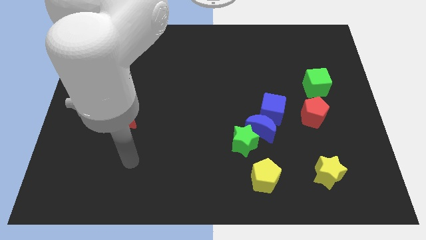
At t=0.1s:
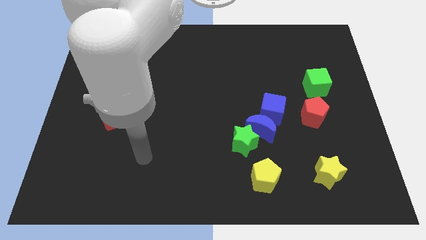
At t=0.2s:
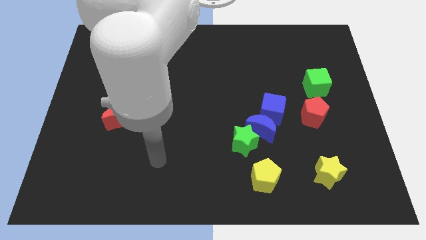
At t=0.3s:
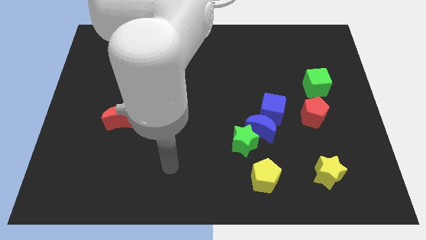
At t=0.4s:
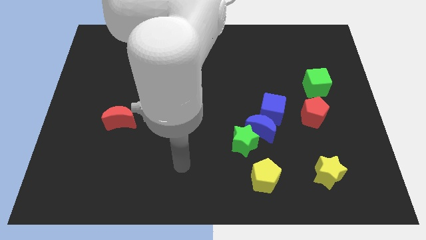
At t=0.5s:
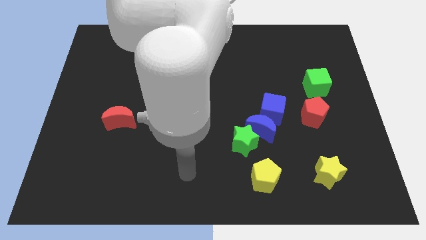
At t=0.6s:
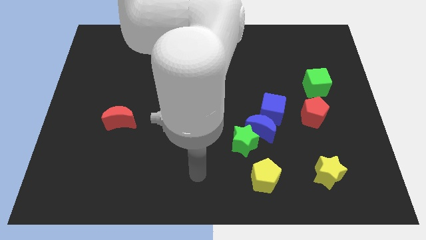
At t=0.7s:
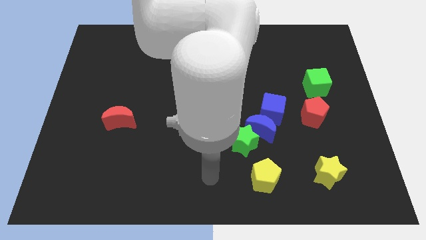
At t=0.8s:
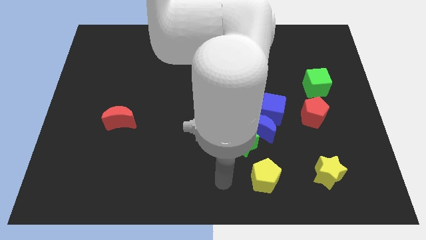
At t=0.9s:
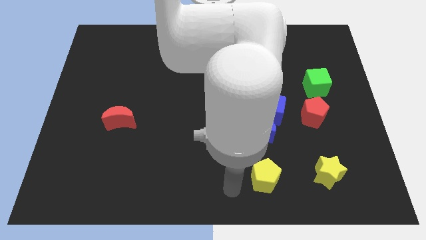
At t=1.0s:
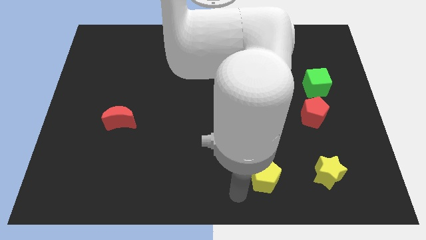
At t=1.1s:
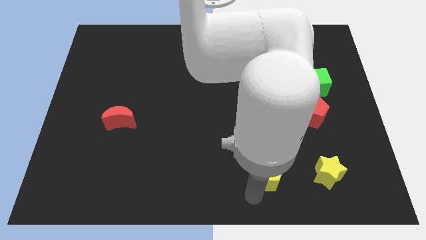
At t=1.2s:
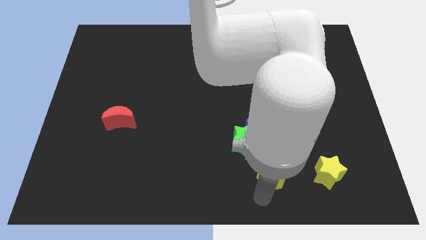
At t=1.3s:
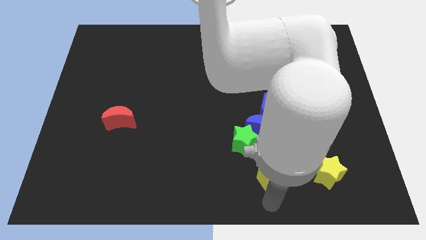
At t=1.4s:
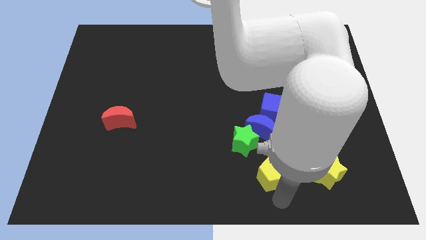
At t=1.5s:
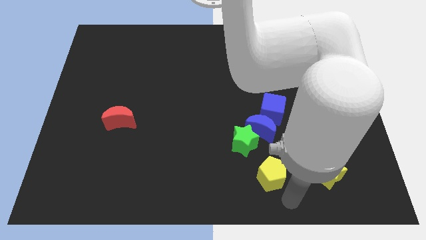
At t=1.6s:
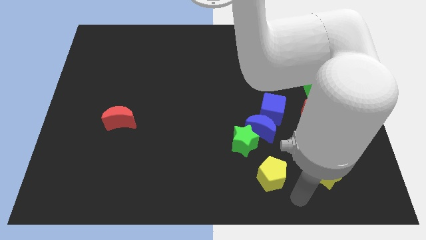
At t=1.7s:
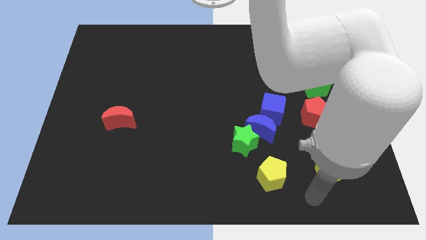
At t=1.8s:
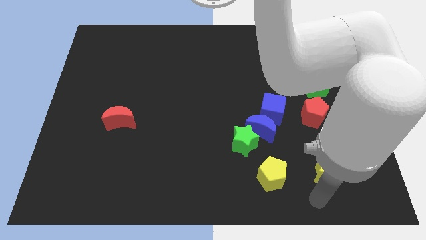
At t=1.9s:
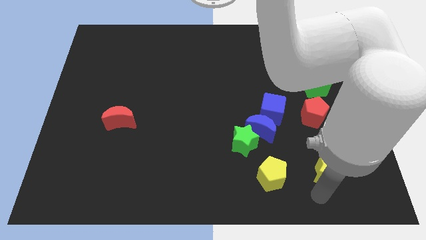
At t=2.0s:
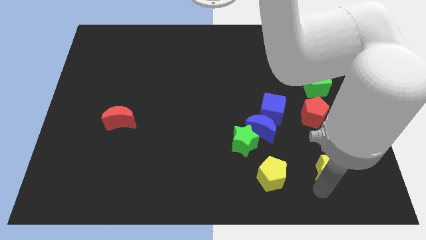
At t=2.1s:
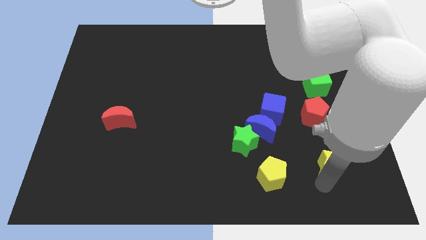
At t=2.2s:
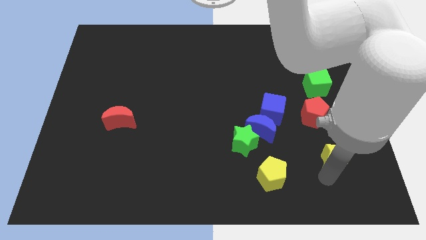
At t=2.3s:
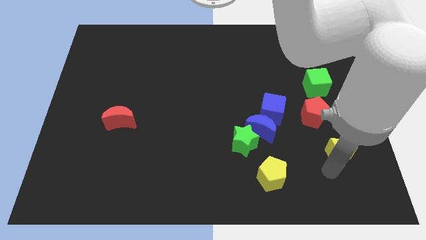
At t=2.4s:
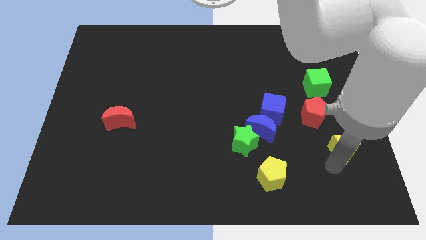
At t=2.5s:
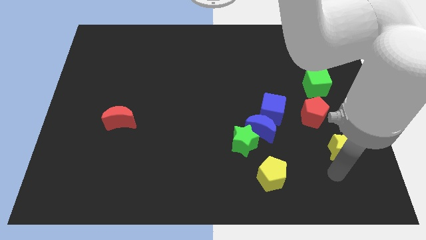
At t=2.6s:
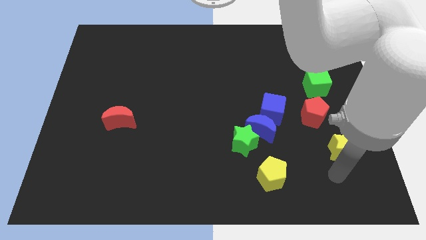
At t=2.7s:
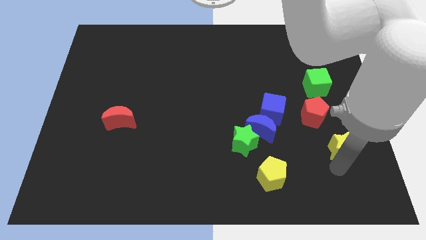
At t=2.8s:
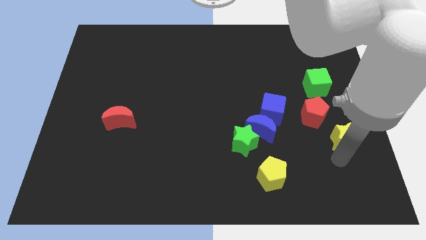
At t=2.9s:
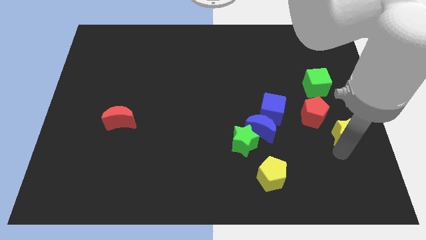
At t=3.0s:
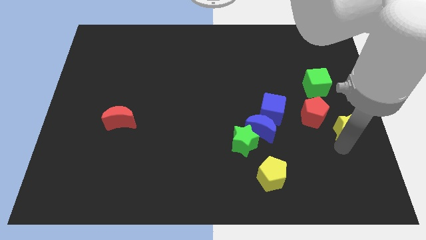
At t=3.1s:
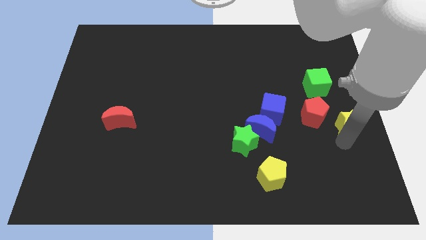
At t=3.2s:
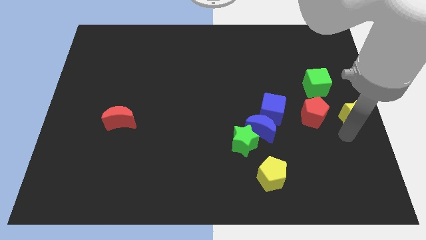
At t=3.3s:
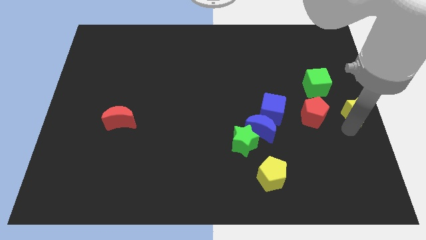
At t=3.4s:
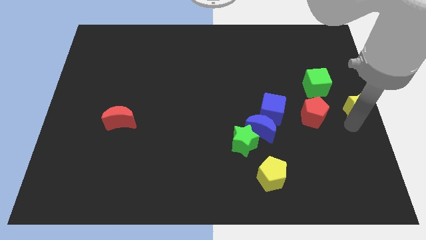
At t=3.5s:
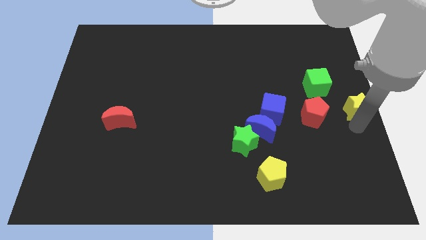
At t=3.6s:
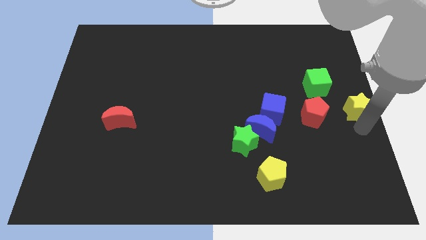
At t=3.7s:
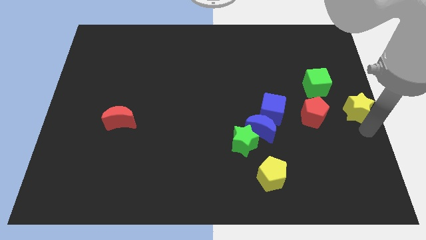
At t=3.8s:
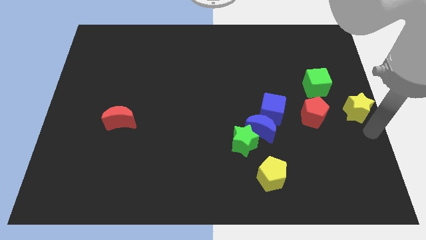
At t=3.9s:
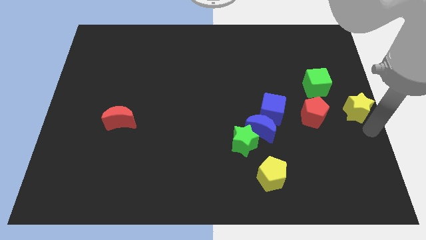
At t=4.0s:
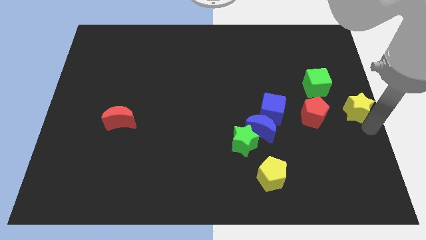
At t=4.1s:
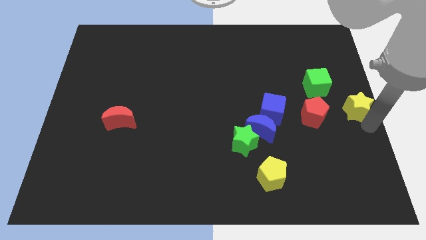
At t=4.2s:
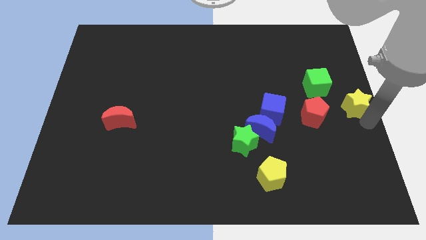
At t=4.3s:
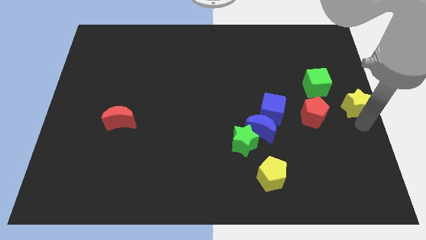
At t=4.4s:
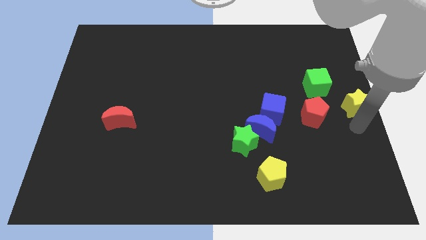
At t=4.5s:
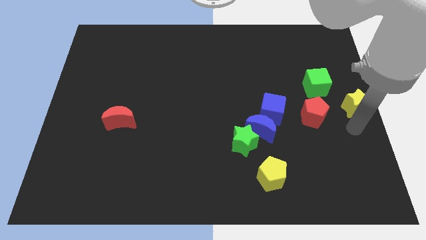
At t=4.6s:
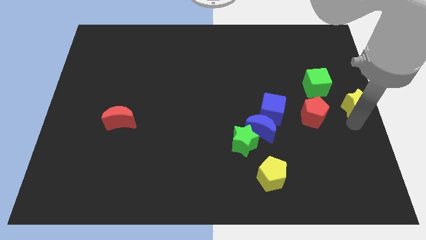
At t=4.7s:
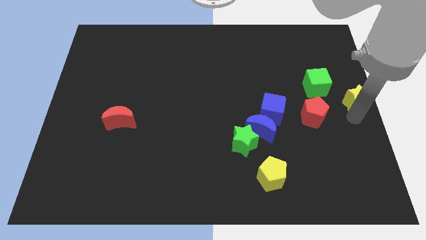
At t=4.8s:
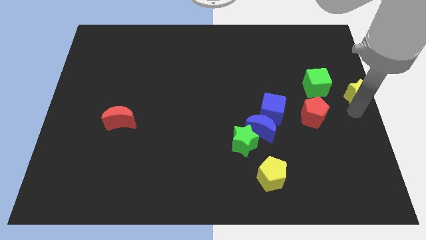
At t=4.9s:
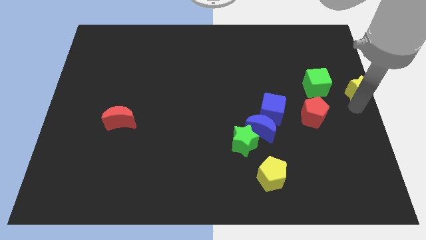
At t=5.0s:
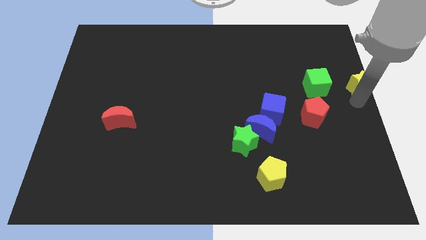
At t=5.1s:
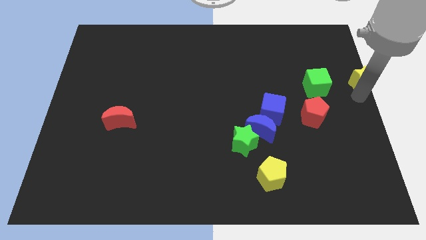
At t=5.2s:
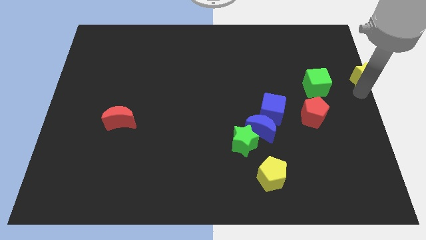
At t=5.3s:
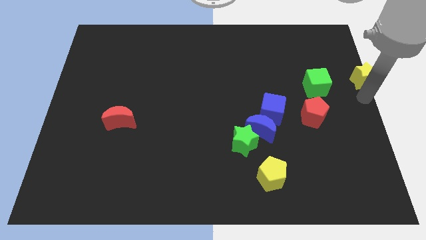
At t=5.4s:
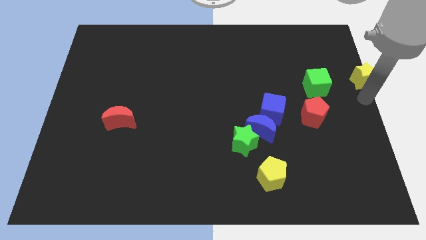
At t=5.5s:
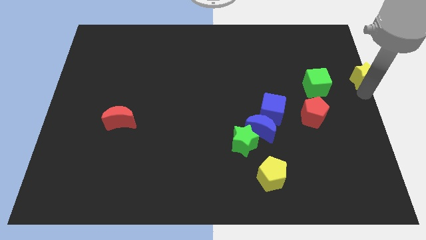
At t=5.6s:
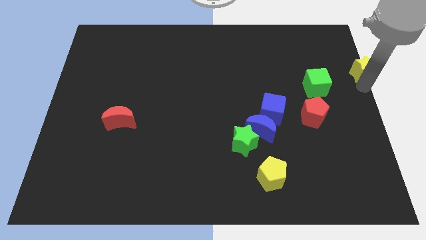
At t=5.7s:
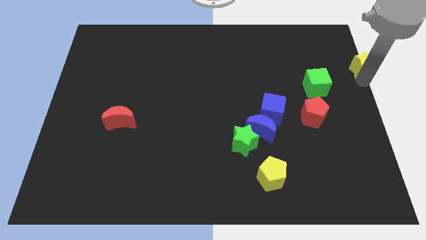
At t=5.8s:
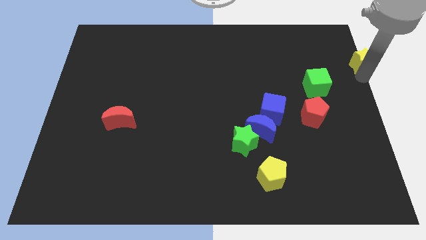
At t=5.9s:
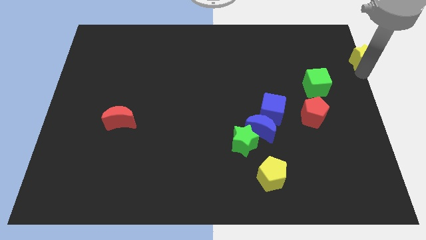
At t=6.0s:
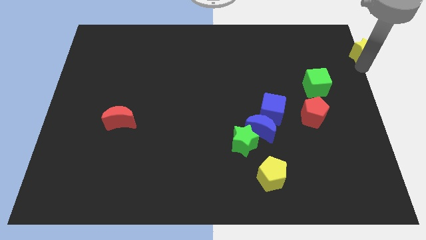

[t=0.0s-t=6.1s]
push the yellow star to the top right
